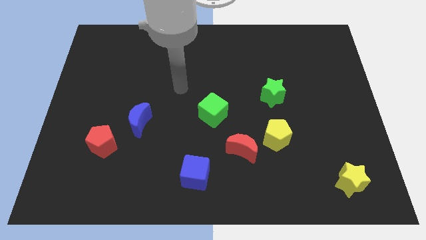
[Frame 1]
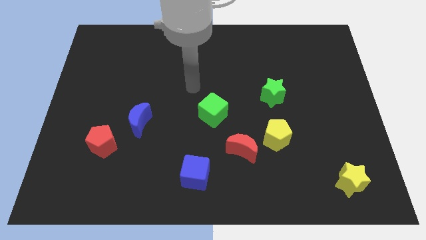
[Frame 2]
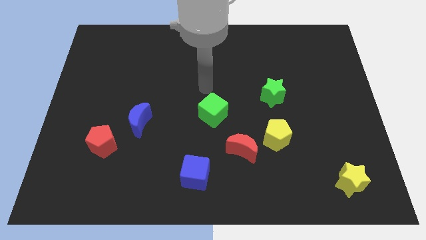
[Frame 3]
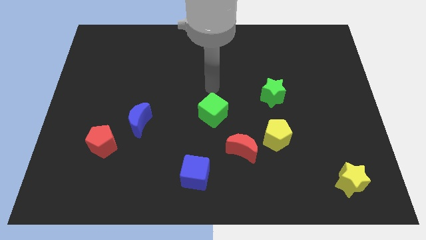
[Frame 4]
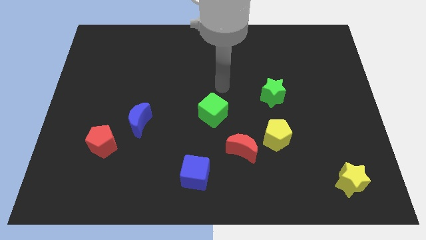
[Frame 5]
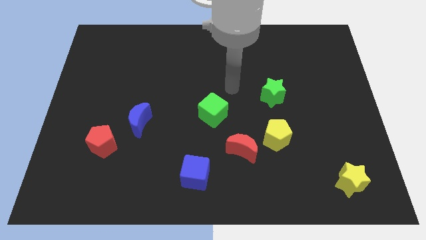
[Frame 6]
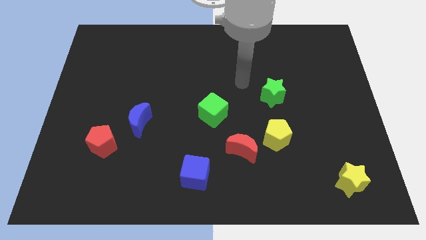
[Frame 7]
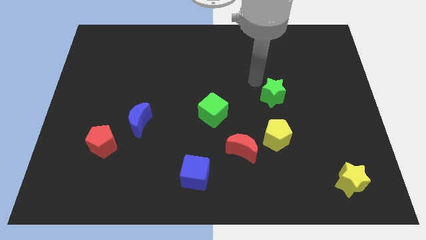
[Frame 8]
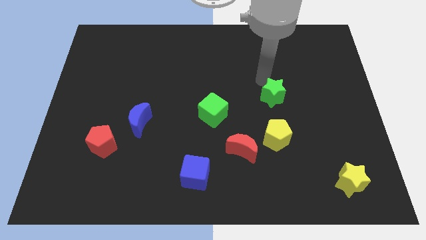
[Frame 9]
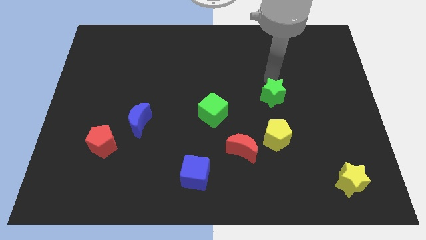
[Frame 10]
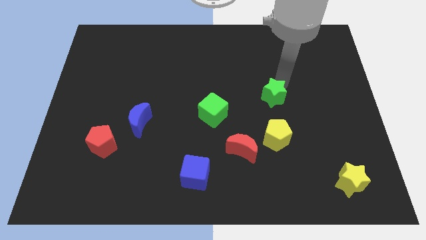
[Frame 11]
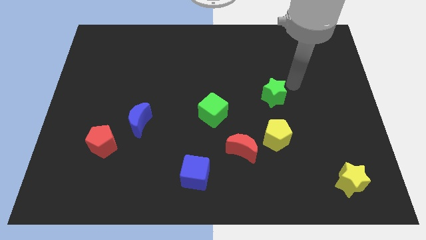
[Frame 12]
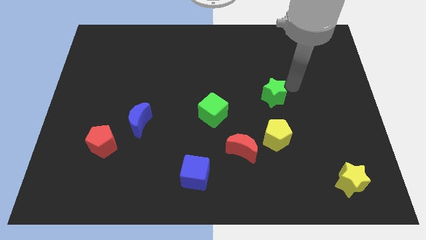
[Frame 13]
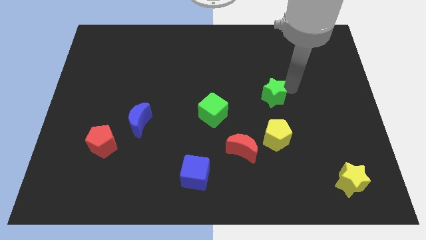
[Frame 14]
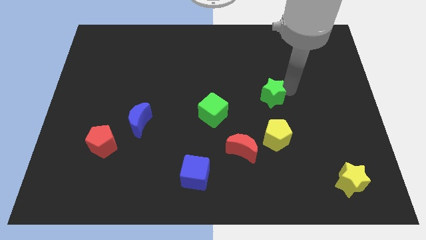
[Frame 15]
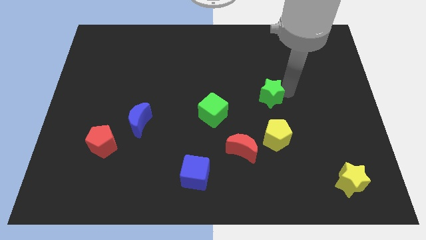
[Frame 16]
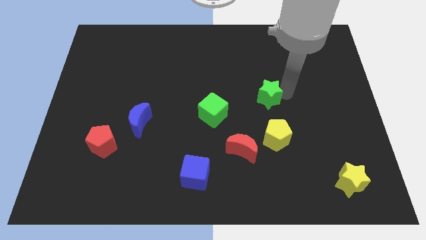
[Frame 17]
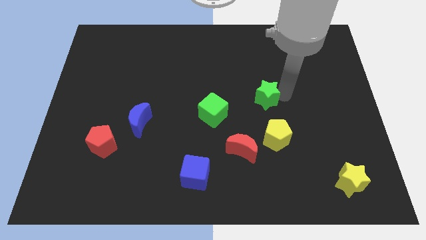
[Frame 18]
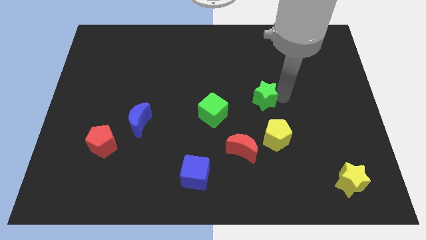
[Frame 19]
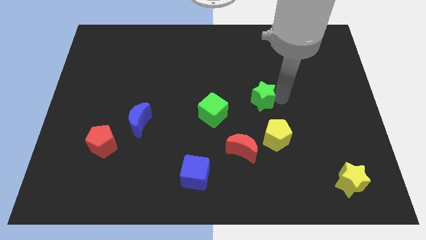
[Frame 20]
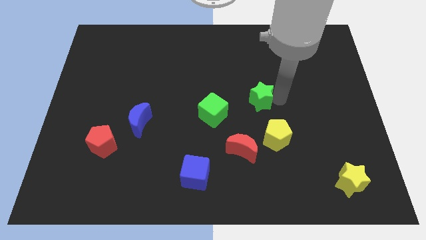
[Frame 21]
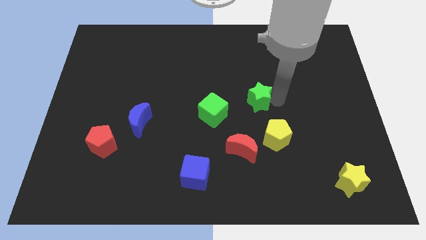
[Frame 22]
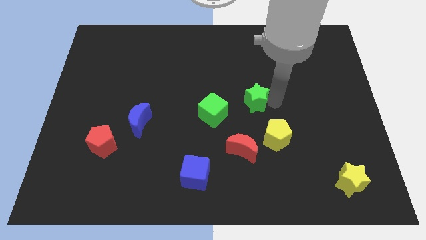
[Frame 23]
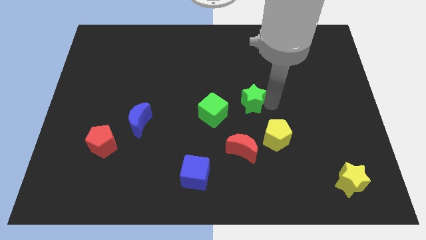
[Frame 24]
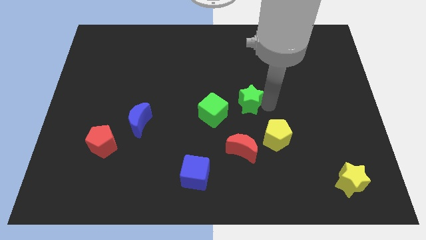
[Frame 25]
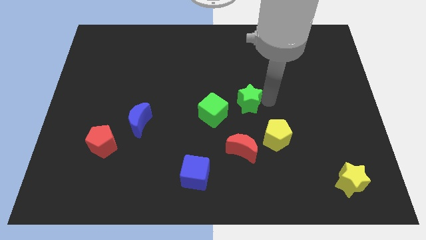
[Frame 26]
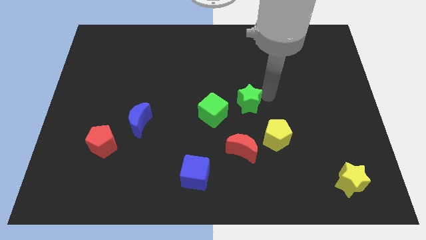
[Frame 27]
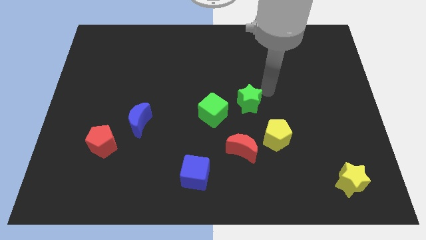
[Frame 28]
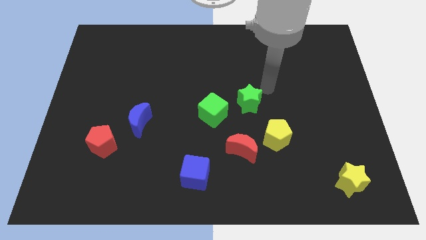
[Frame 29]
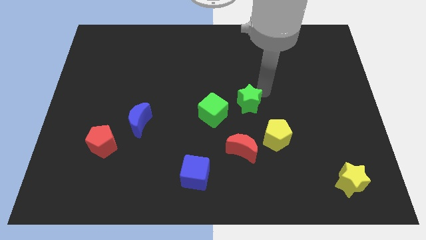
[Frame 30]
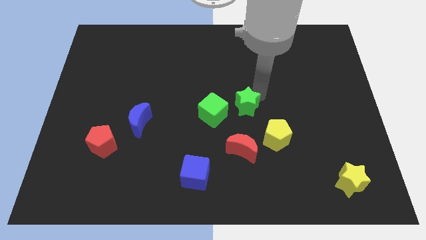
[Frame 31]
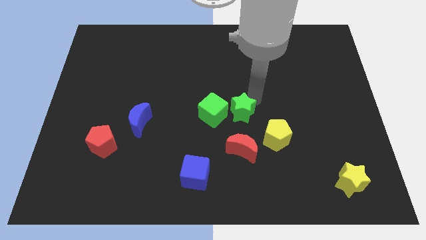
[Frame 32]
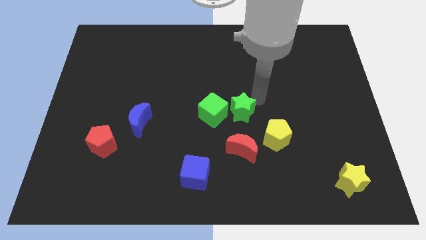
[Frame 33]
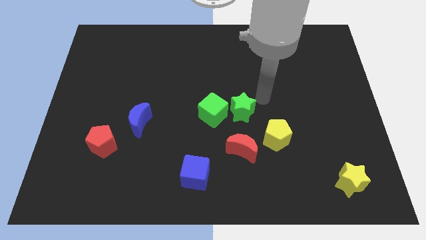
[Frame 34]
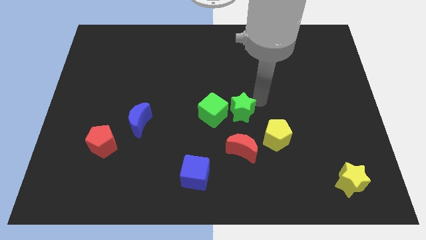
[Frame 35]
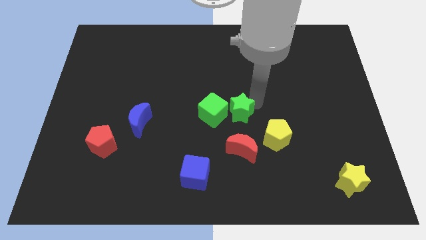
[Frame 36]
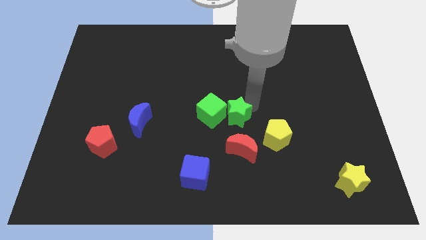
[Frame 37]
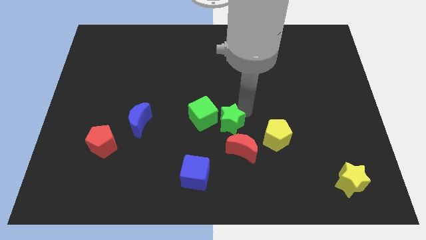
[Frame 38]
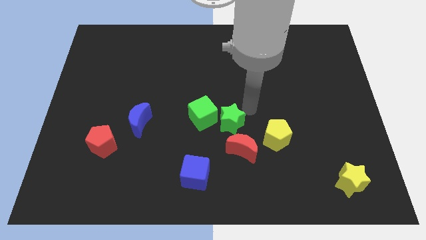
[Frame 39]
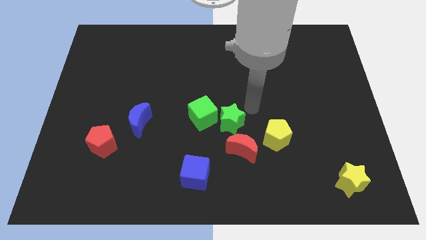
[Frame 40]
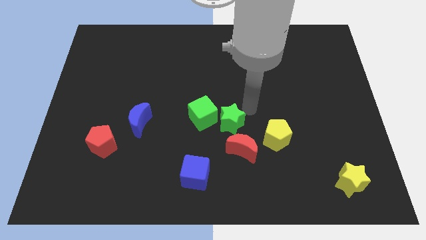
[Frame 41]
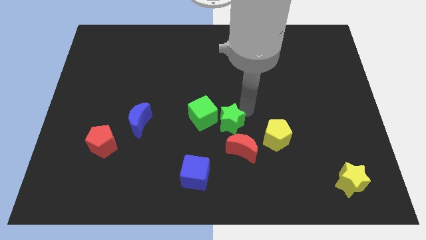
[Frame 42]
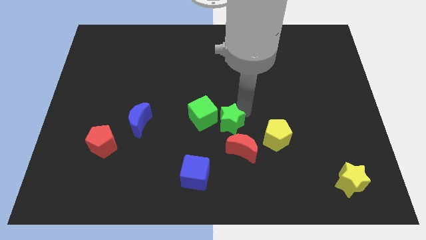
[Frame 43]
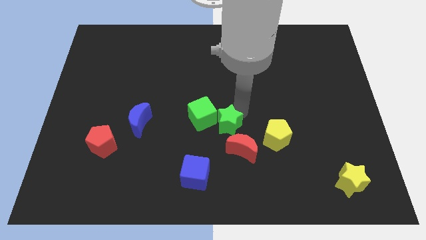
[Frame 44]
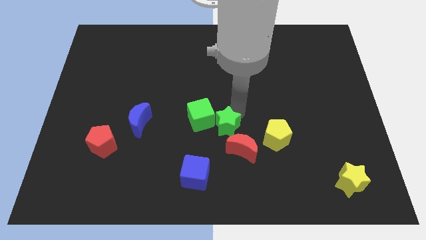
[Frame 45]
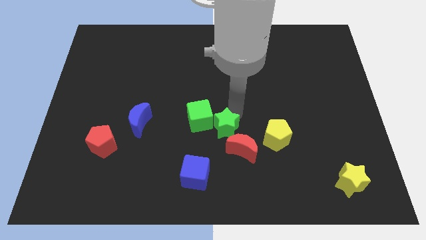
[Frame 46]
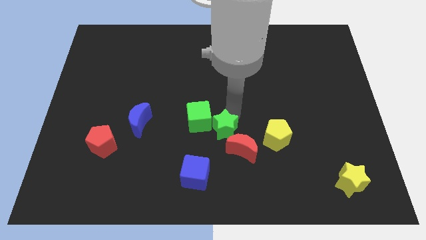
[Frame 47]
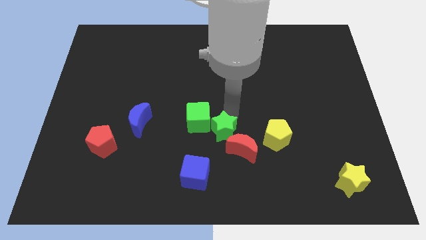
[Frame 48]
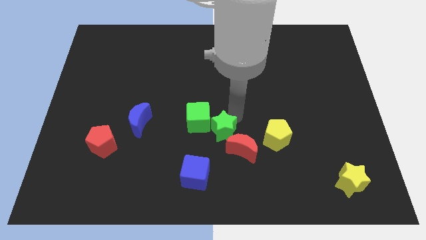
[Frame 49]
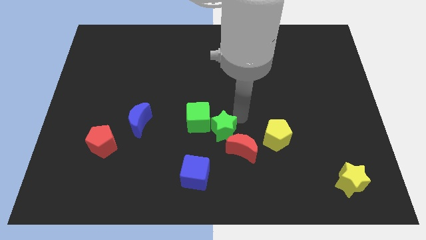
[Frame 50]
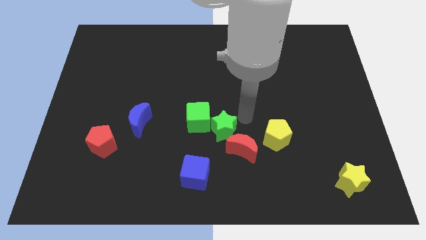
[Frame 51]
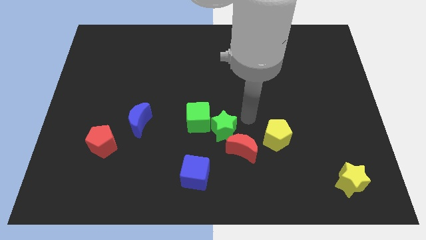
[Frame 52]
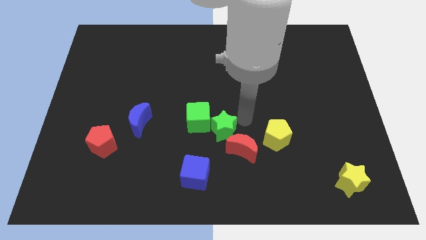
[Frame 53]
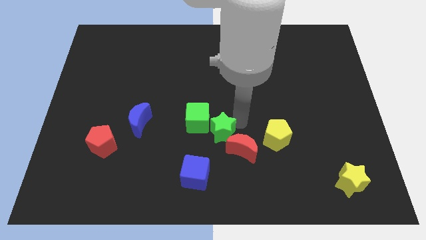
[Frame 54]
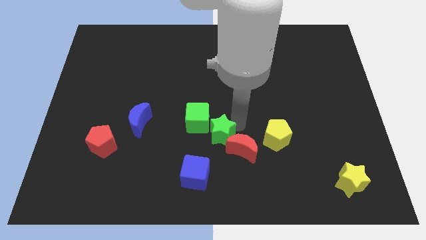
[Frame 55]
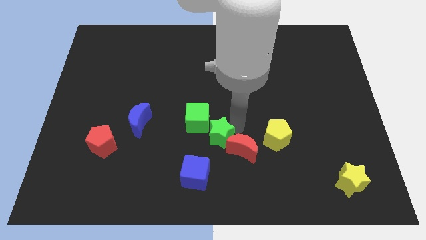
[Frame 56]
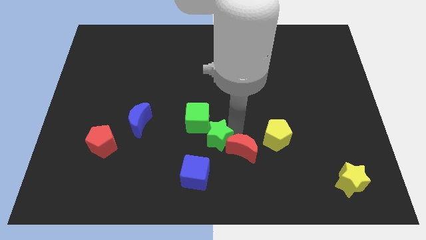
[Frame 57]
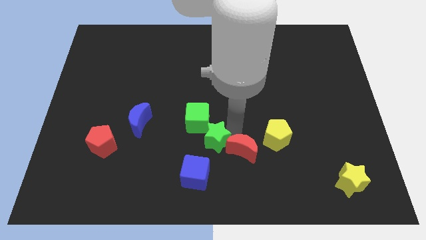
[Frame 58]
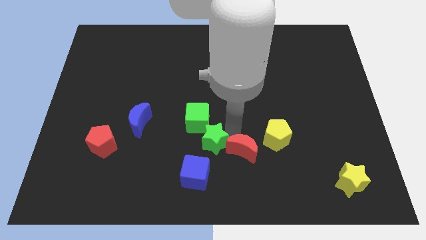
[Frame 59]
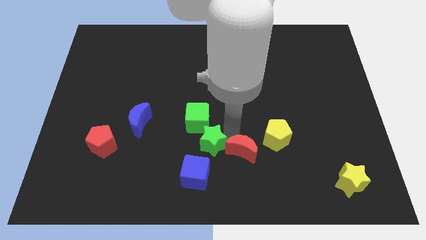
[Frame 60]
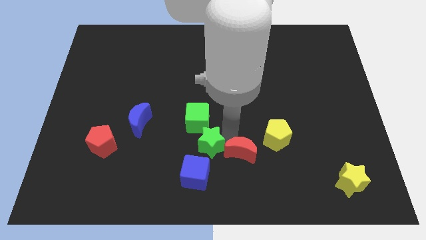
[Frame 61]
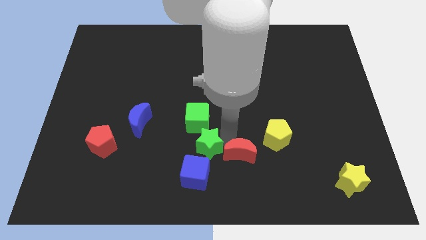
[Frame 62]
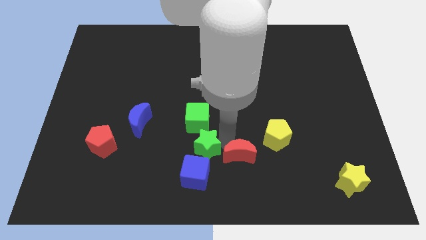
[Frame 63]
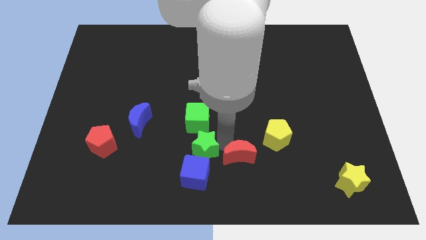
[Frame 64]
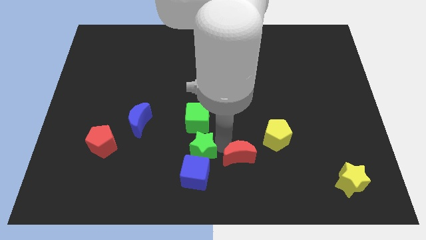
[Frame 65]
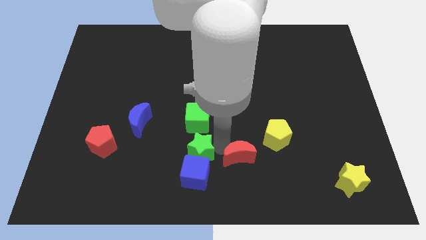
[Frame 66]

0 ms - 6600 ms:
move the green star to the top left of the blue cube

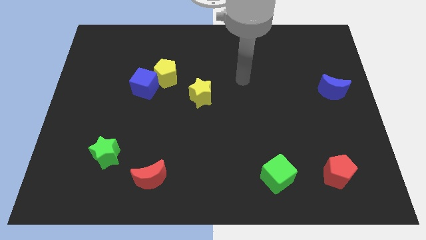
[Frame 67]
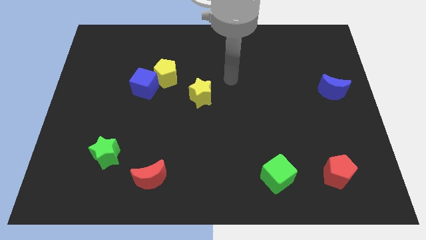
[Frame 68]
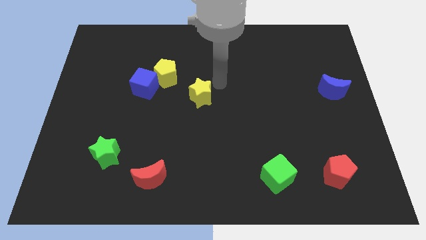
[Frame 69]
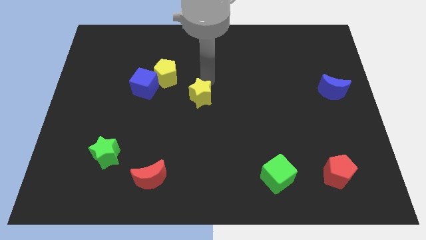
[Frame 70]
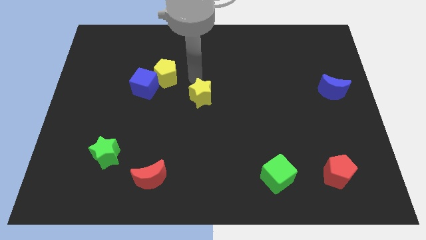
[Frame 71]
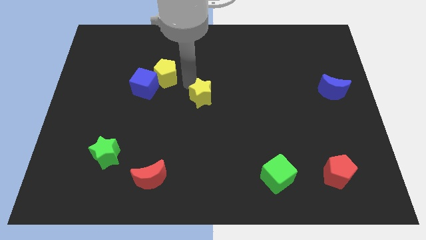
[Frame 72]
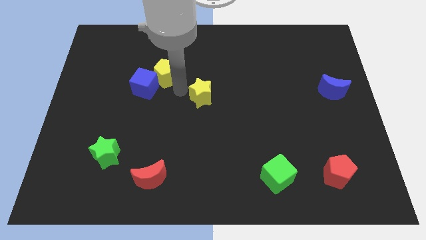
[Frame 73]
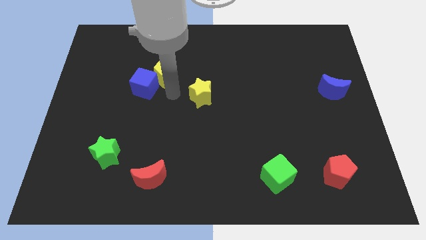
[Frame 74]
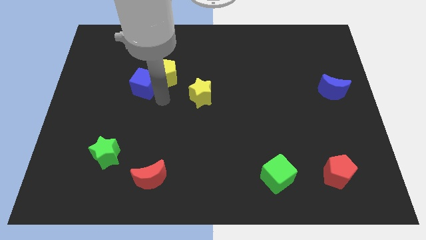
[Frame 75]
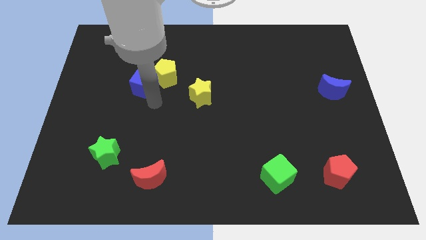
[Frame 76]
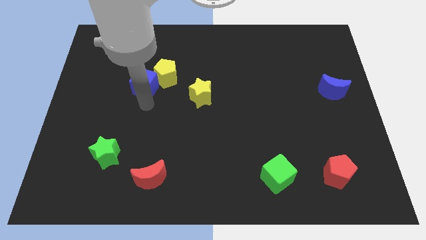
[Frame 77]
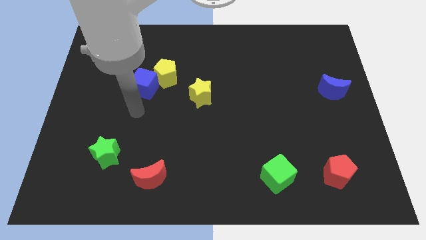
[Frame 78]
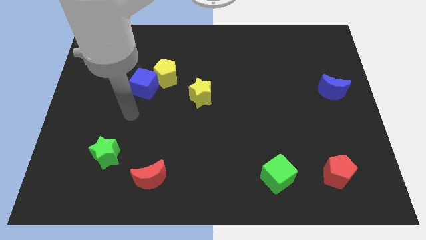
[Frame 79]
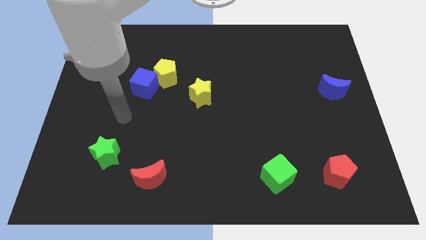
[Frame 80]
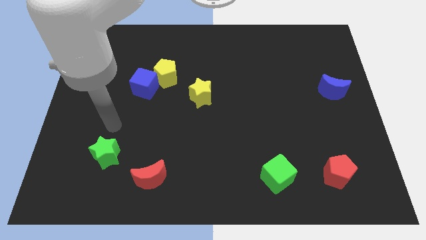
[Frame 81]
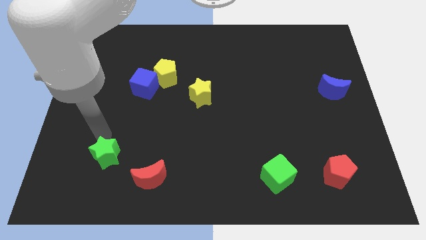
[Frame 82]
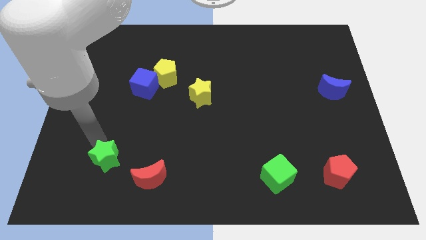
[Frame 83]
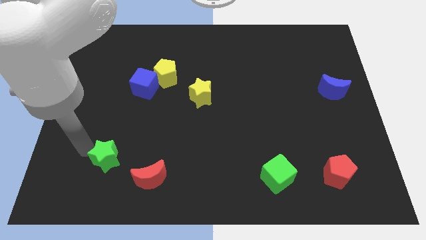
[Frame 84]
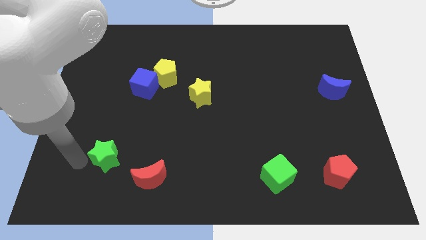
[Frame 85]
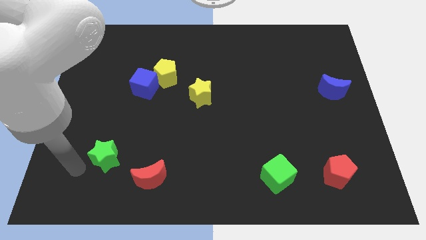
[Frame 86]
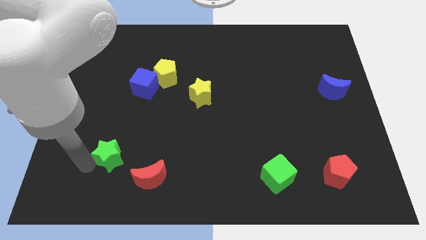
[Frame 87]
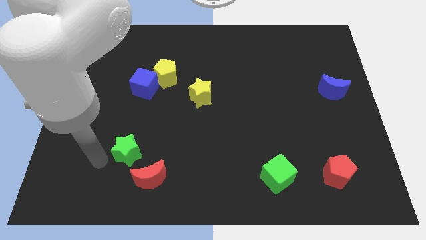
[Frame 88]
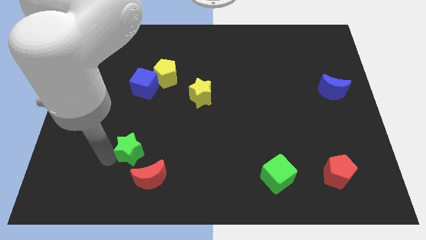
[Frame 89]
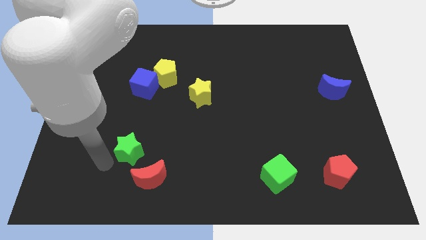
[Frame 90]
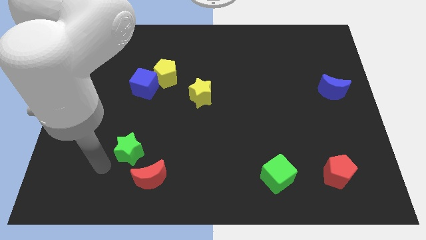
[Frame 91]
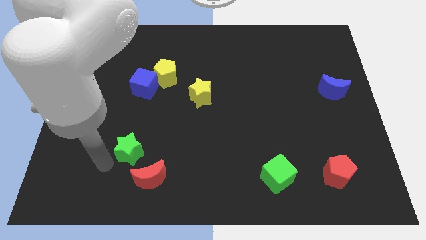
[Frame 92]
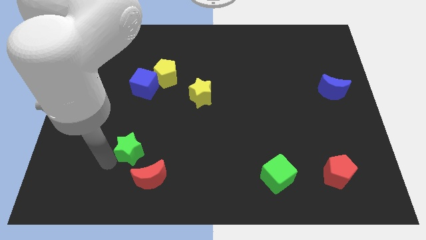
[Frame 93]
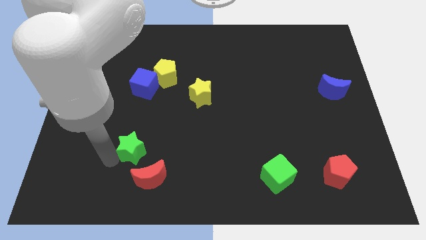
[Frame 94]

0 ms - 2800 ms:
slide the green star to the top side of the red moon
